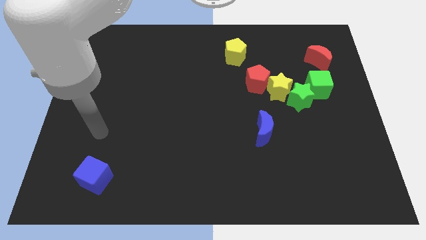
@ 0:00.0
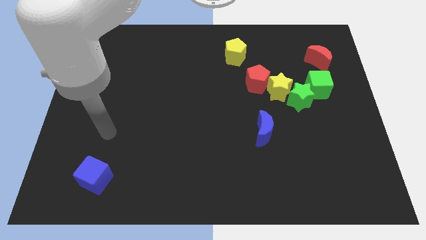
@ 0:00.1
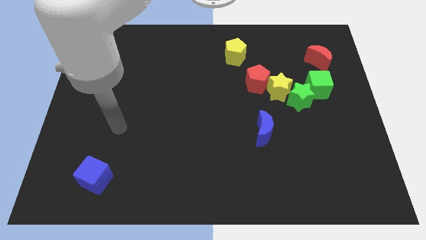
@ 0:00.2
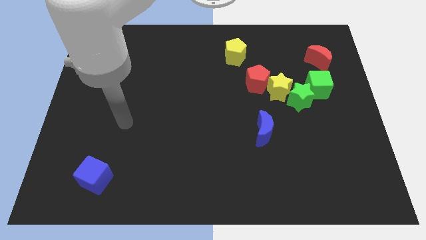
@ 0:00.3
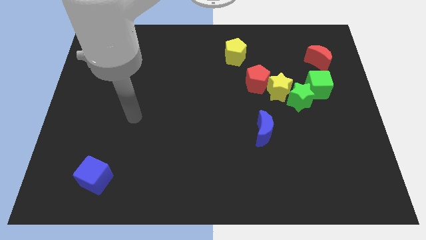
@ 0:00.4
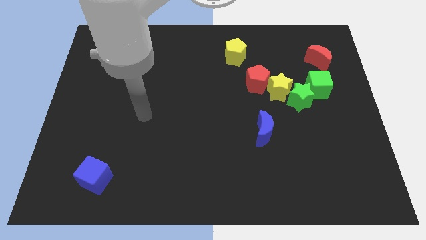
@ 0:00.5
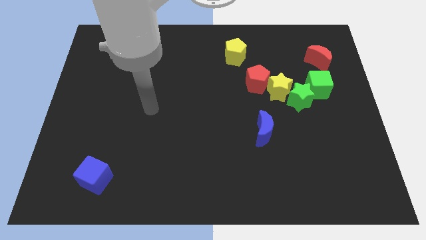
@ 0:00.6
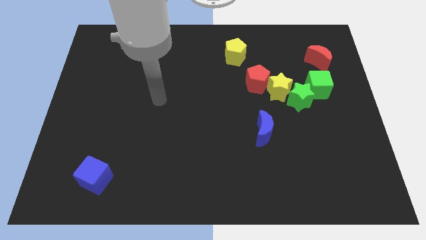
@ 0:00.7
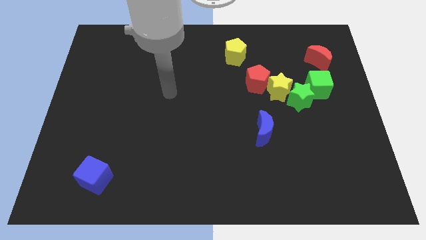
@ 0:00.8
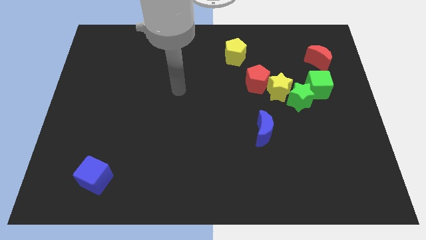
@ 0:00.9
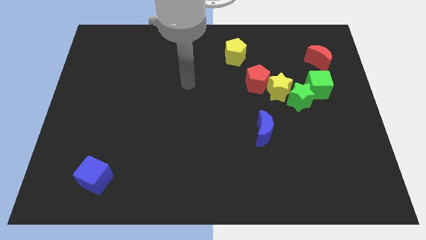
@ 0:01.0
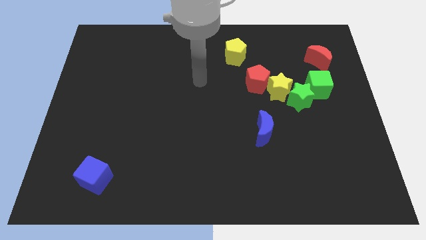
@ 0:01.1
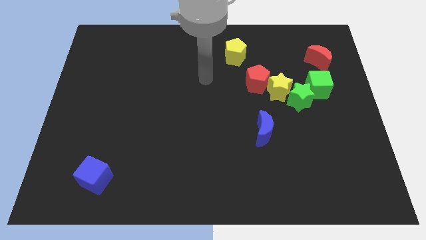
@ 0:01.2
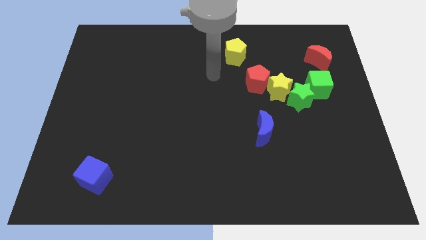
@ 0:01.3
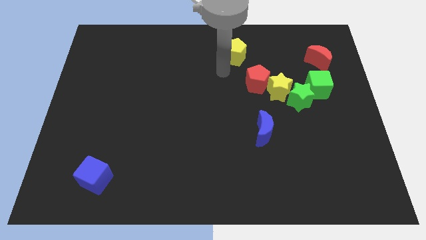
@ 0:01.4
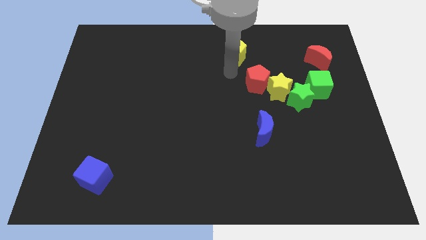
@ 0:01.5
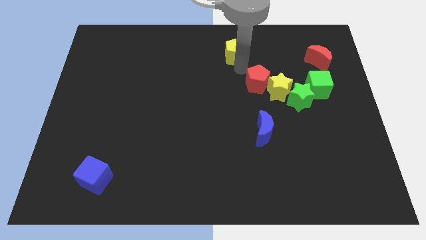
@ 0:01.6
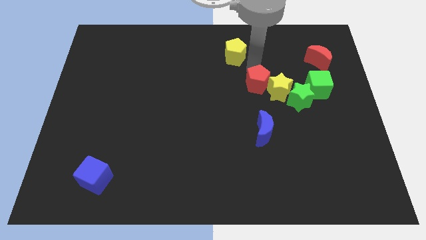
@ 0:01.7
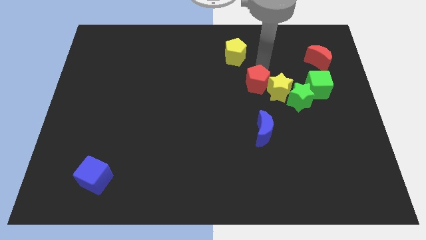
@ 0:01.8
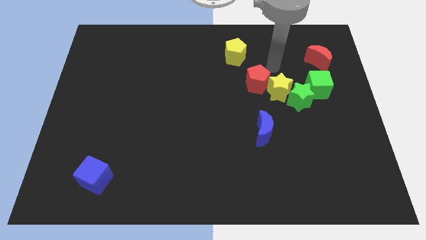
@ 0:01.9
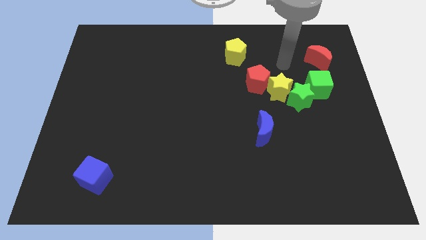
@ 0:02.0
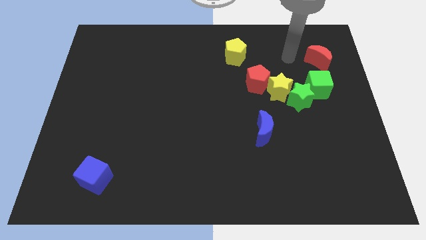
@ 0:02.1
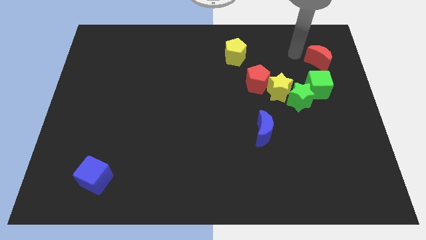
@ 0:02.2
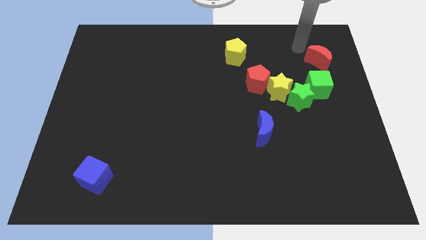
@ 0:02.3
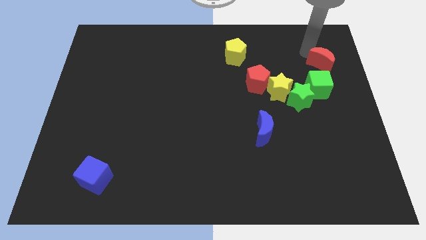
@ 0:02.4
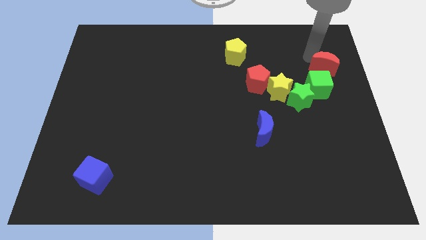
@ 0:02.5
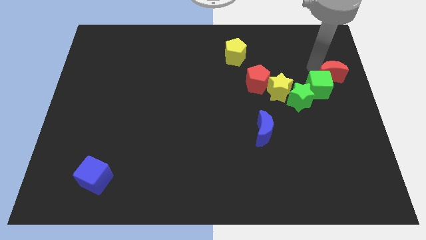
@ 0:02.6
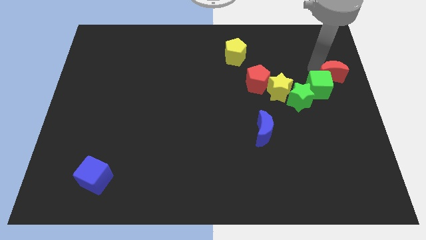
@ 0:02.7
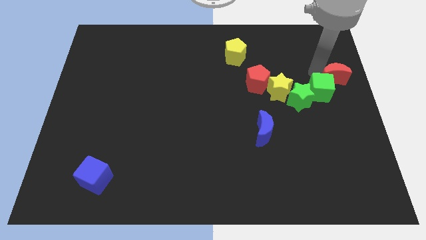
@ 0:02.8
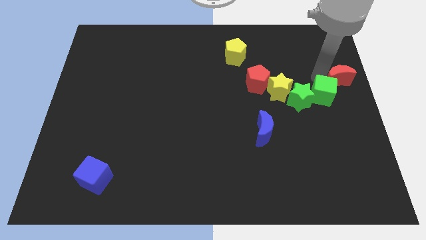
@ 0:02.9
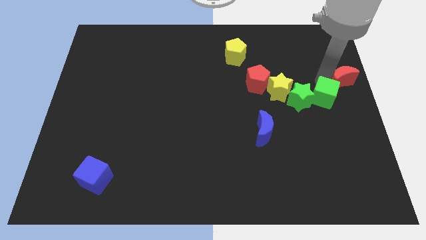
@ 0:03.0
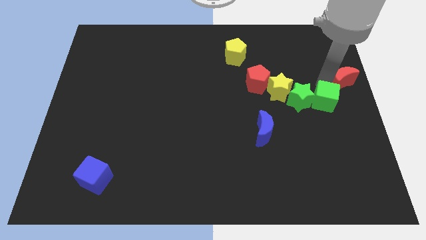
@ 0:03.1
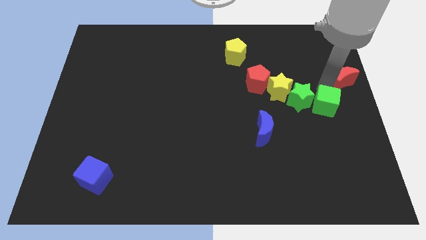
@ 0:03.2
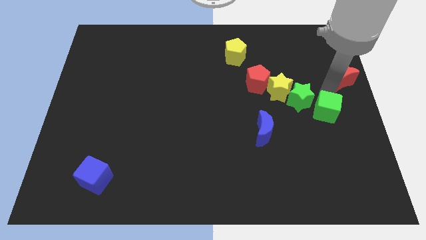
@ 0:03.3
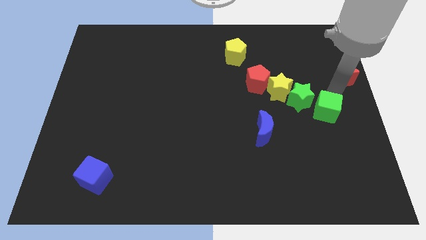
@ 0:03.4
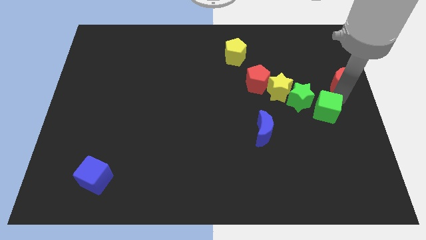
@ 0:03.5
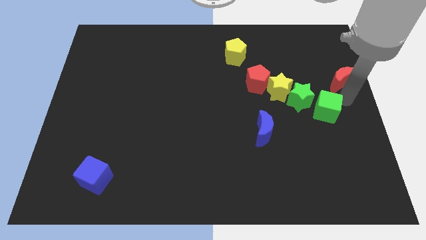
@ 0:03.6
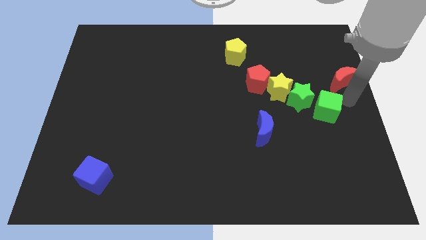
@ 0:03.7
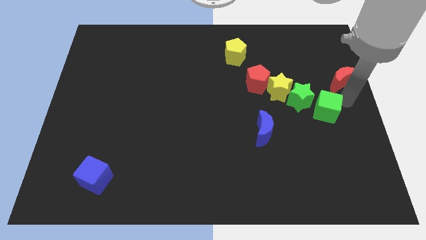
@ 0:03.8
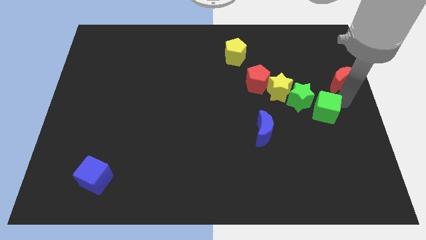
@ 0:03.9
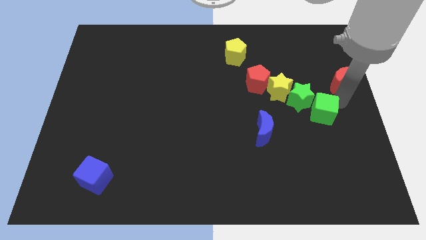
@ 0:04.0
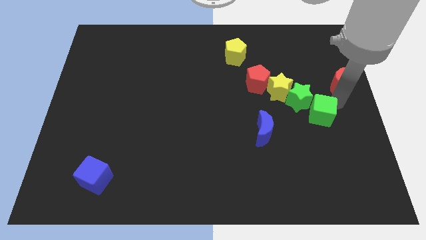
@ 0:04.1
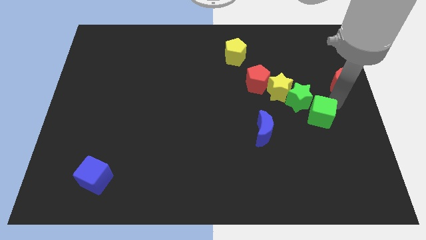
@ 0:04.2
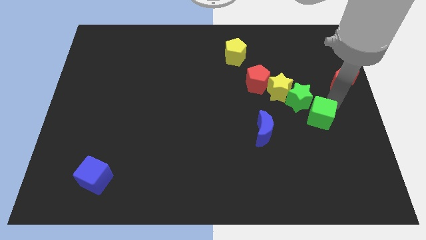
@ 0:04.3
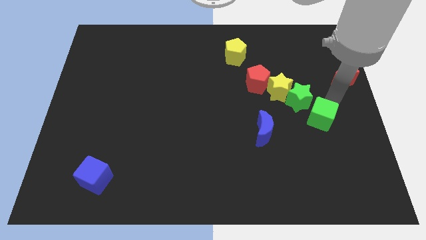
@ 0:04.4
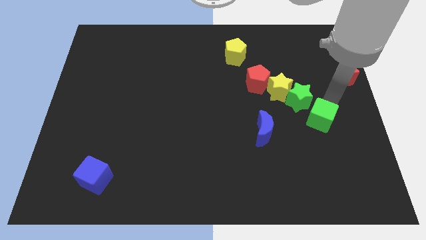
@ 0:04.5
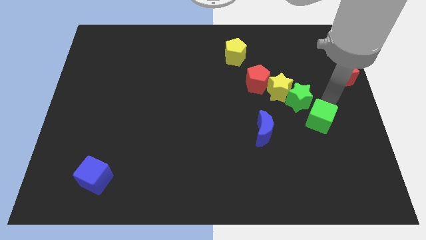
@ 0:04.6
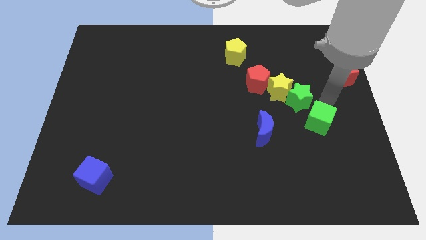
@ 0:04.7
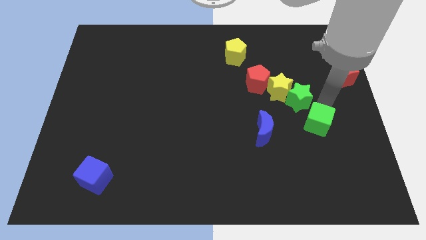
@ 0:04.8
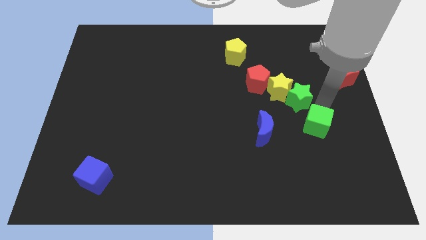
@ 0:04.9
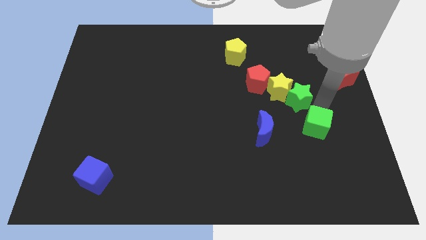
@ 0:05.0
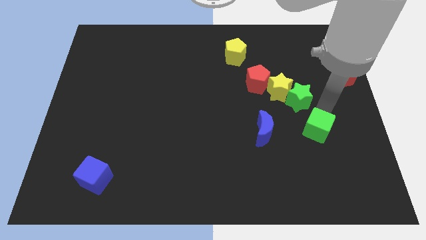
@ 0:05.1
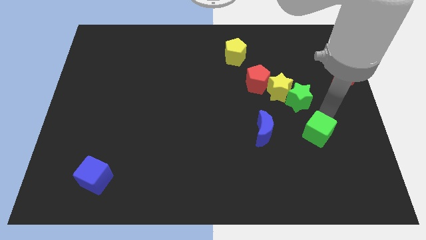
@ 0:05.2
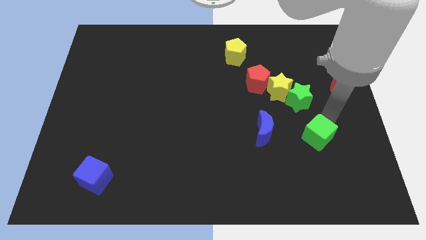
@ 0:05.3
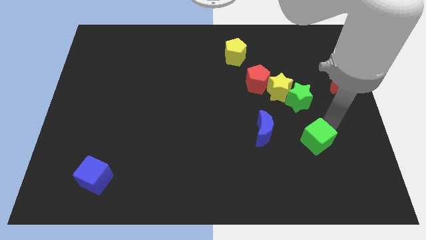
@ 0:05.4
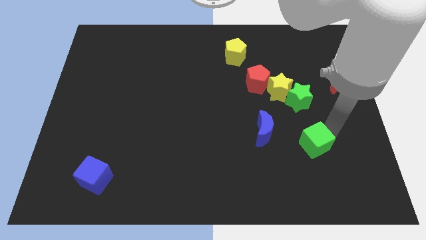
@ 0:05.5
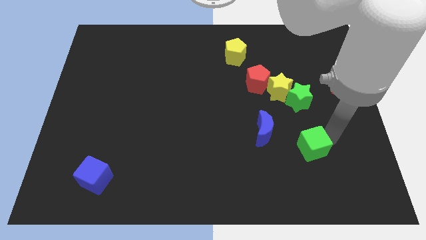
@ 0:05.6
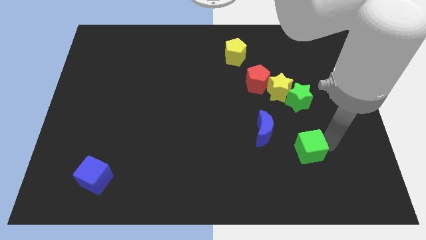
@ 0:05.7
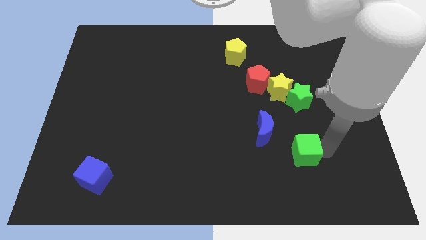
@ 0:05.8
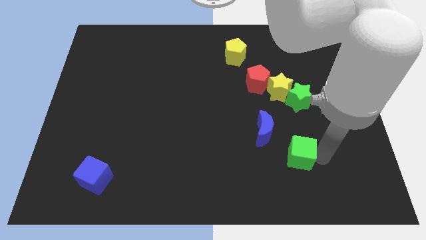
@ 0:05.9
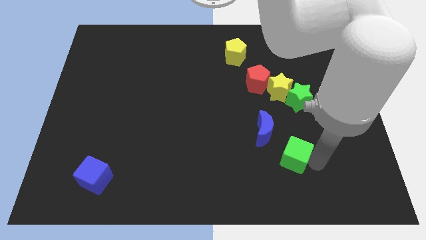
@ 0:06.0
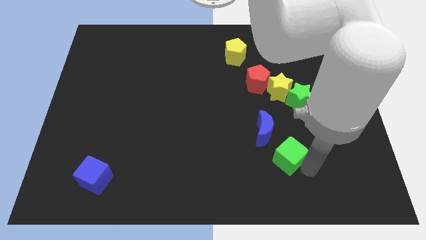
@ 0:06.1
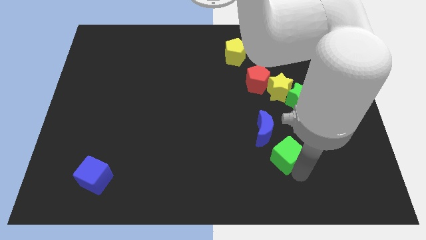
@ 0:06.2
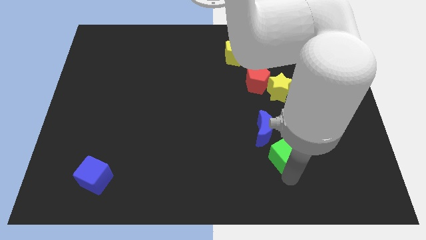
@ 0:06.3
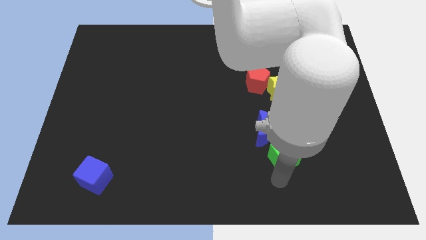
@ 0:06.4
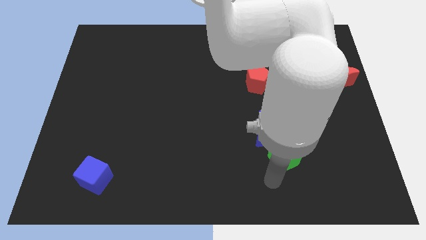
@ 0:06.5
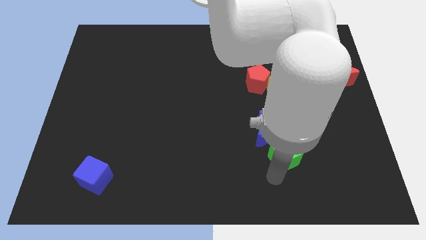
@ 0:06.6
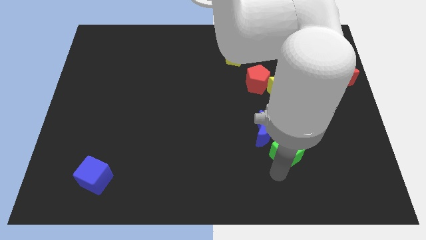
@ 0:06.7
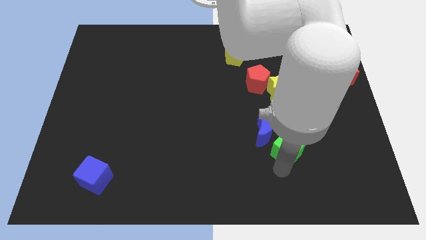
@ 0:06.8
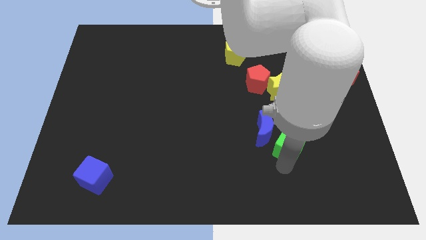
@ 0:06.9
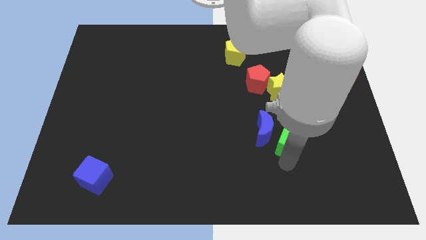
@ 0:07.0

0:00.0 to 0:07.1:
move the green cube to the bottom of the yellow star

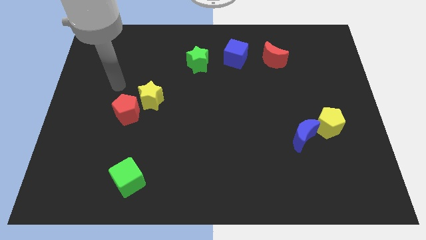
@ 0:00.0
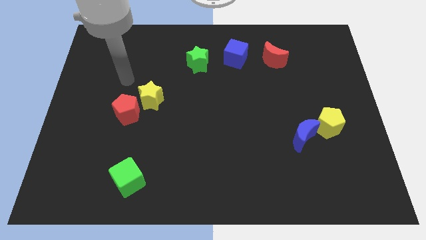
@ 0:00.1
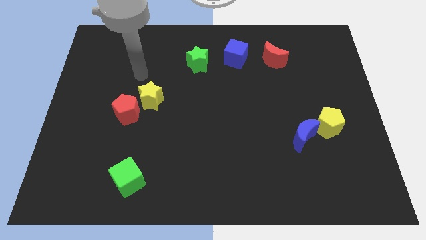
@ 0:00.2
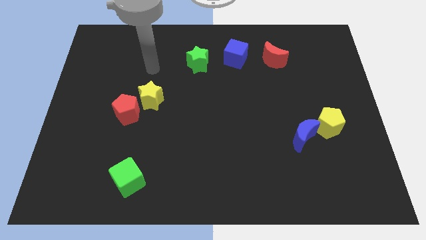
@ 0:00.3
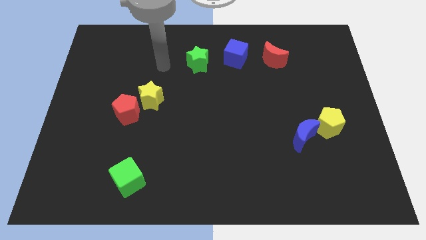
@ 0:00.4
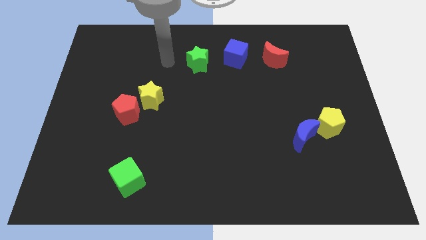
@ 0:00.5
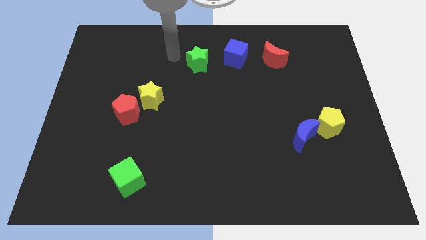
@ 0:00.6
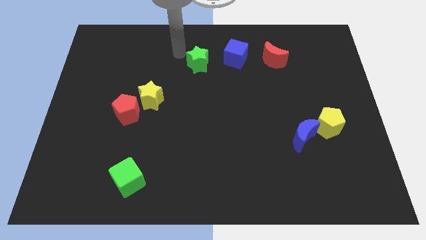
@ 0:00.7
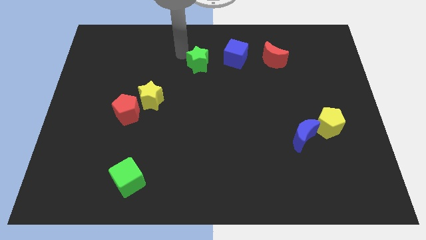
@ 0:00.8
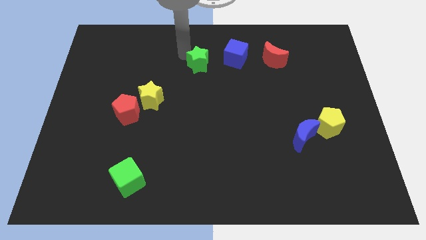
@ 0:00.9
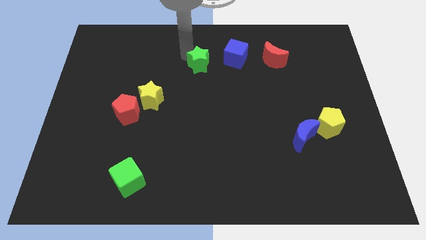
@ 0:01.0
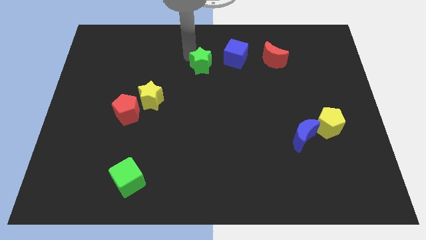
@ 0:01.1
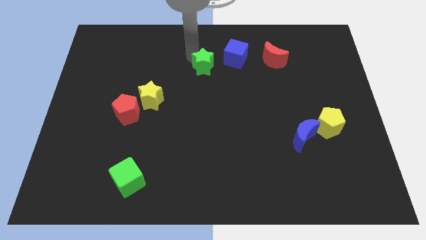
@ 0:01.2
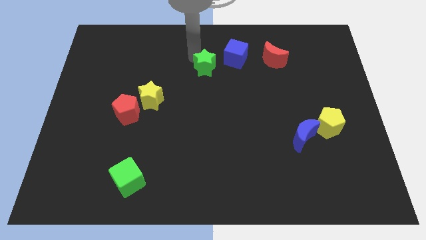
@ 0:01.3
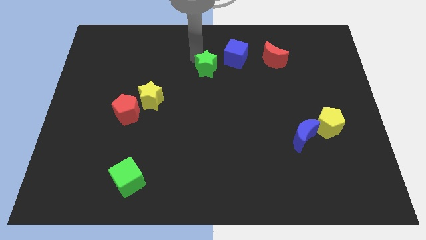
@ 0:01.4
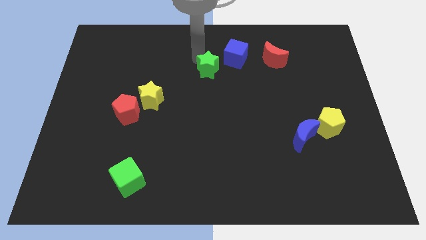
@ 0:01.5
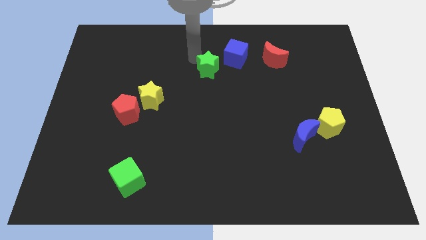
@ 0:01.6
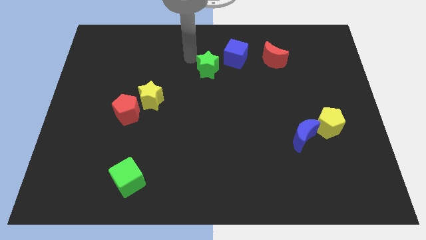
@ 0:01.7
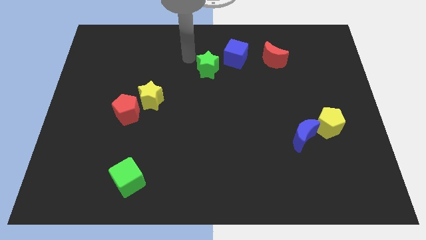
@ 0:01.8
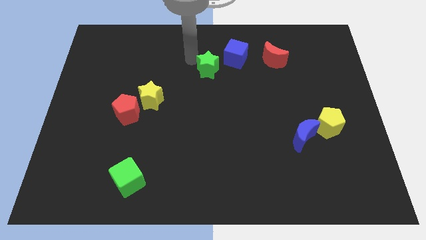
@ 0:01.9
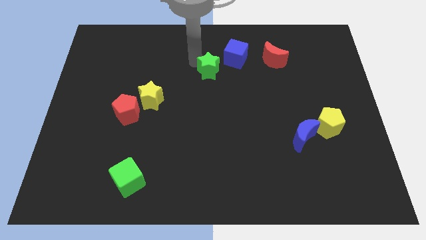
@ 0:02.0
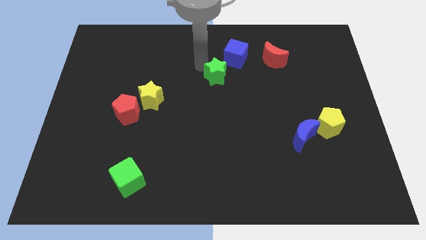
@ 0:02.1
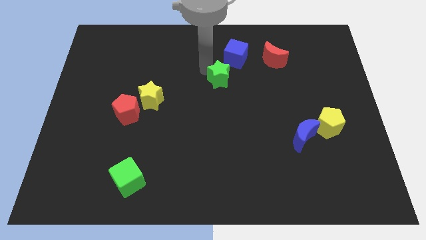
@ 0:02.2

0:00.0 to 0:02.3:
put the green star to the bottom side of the blue cube
